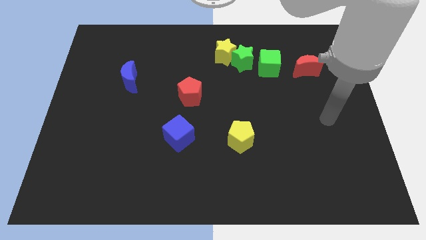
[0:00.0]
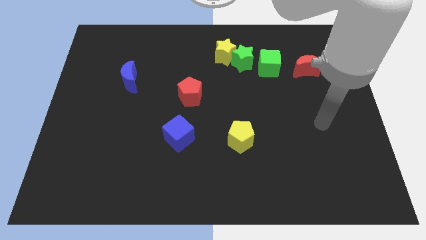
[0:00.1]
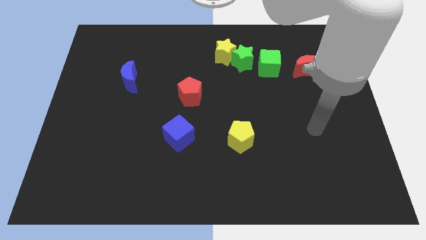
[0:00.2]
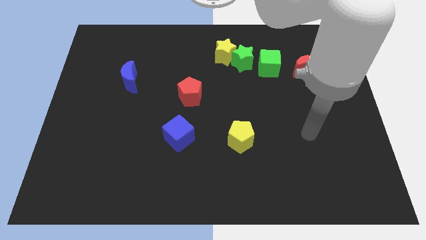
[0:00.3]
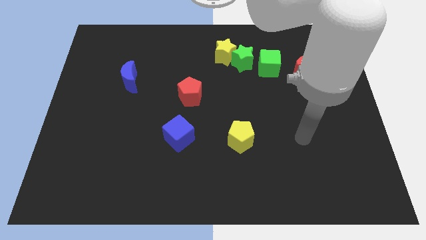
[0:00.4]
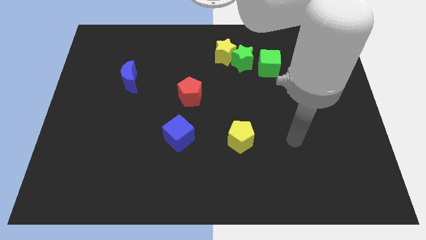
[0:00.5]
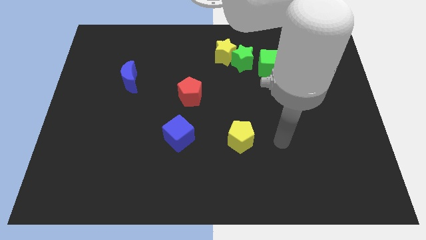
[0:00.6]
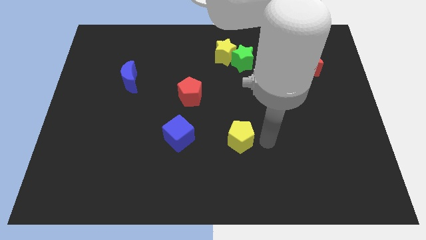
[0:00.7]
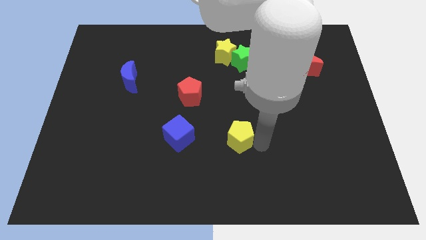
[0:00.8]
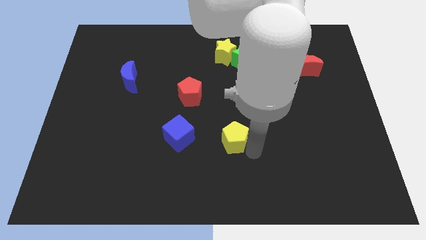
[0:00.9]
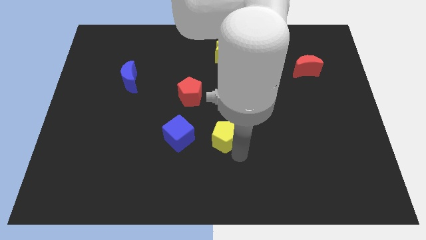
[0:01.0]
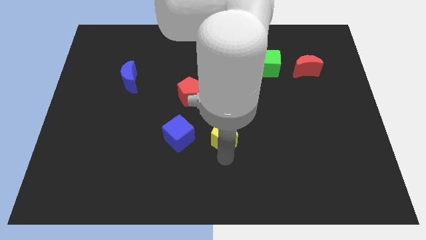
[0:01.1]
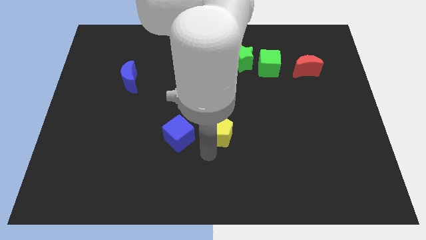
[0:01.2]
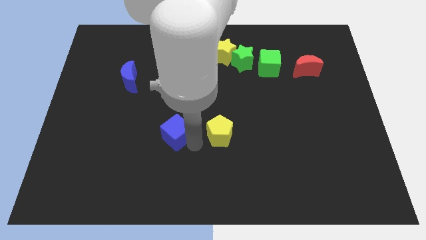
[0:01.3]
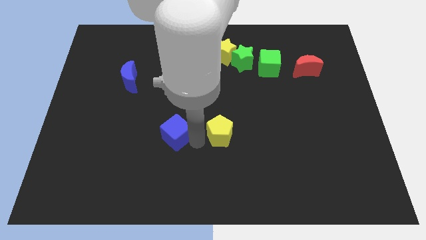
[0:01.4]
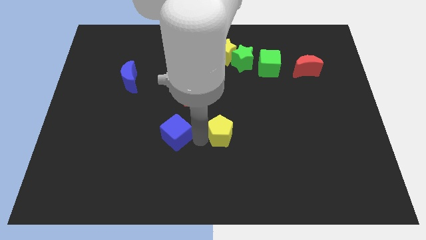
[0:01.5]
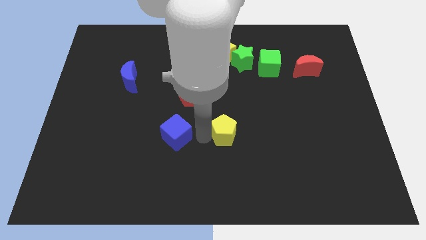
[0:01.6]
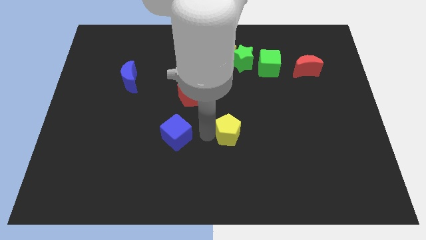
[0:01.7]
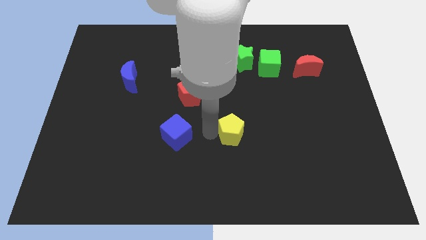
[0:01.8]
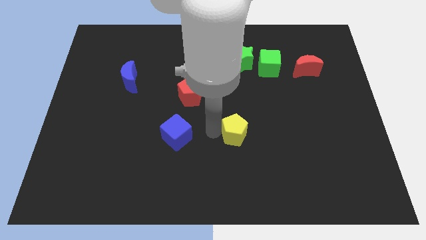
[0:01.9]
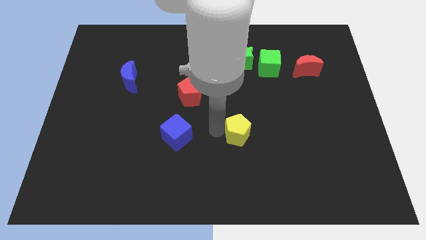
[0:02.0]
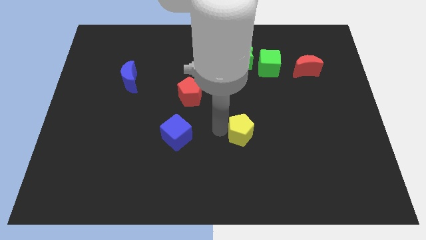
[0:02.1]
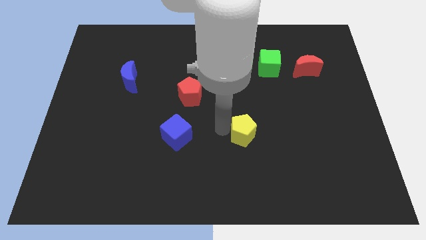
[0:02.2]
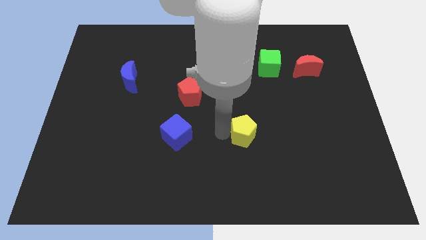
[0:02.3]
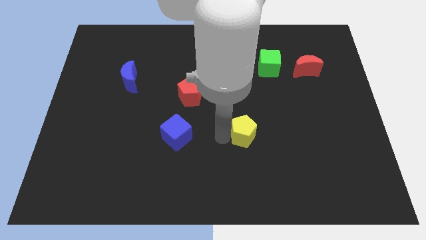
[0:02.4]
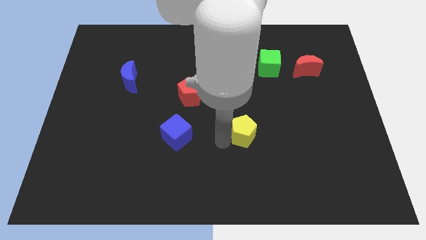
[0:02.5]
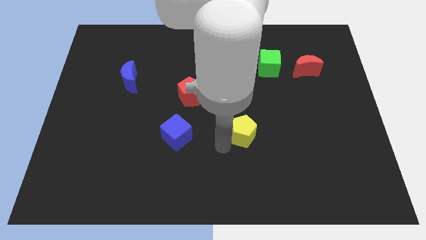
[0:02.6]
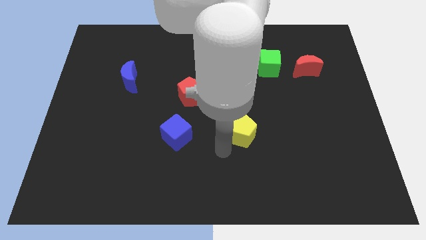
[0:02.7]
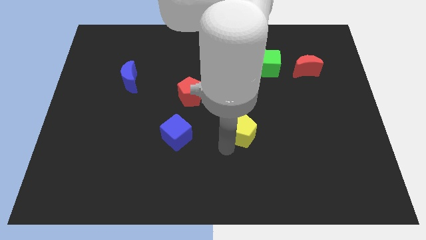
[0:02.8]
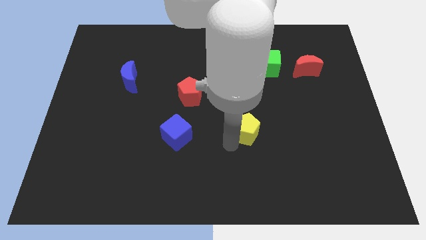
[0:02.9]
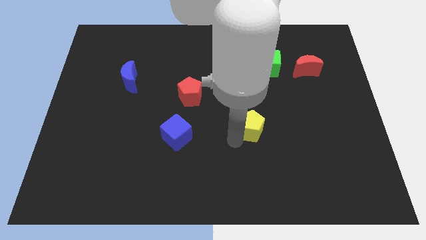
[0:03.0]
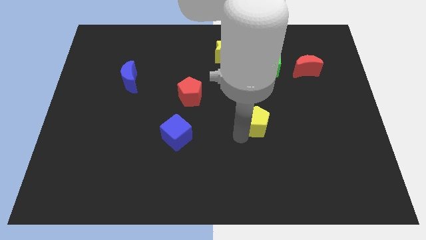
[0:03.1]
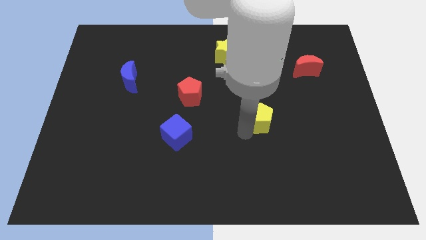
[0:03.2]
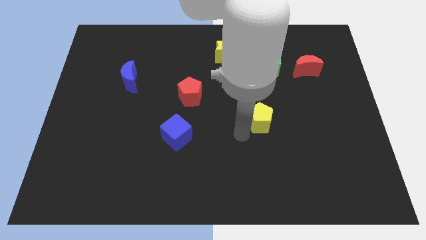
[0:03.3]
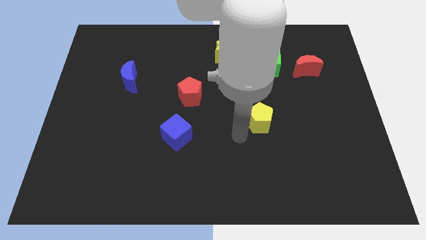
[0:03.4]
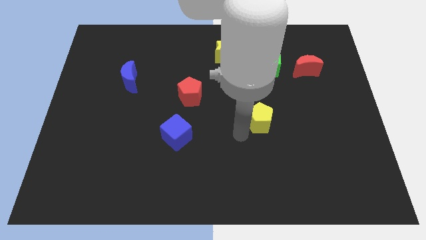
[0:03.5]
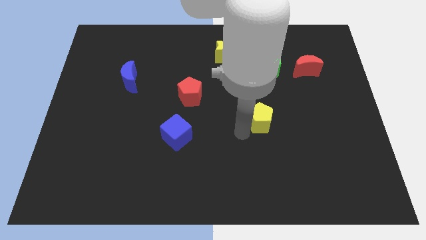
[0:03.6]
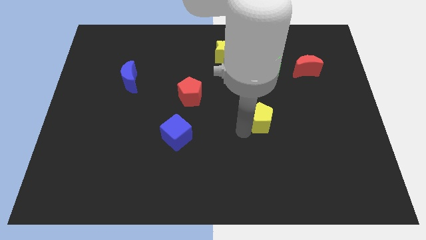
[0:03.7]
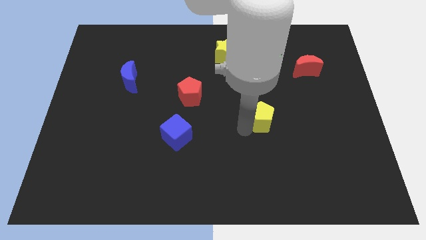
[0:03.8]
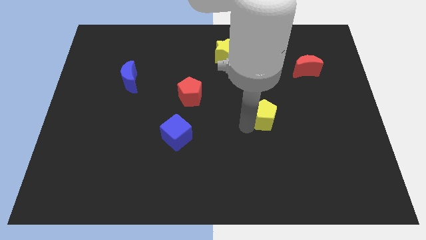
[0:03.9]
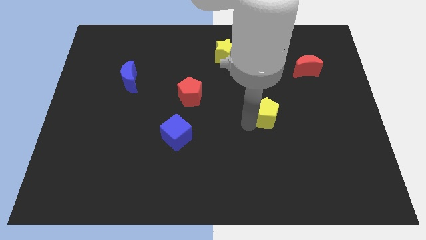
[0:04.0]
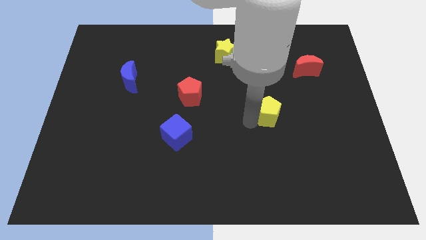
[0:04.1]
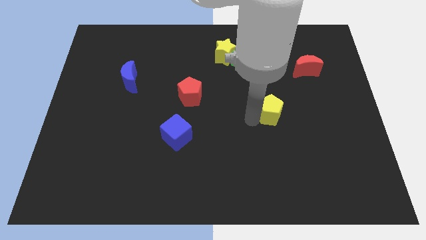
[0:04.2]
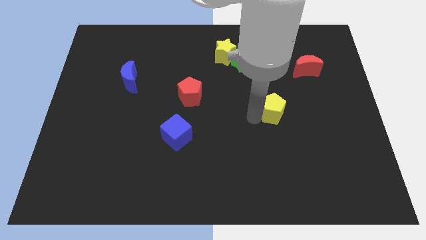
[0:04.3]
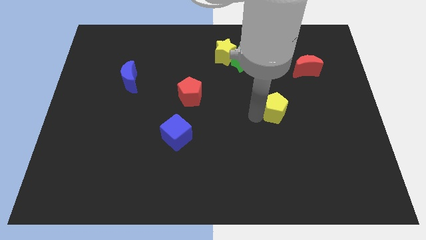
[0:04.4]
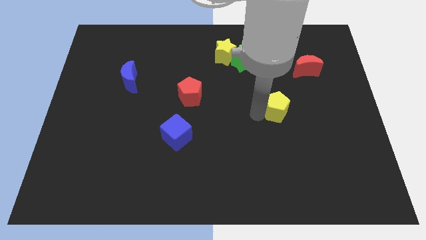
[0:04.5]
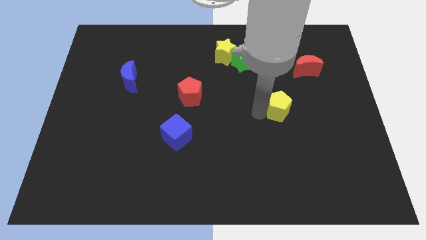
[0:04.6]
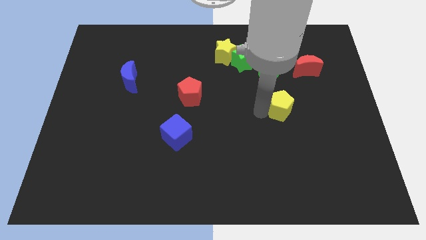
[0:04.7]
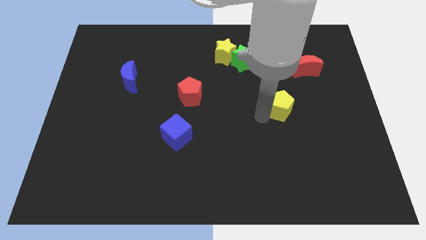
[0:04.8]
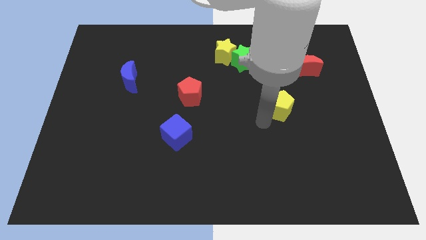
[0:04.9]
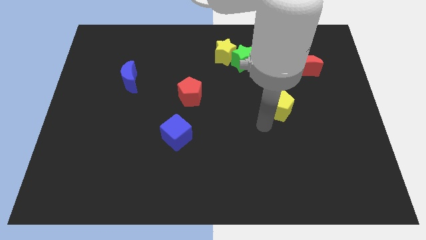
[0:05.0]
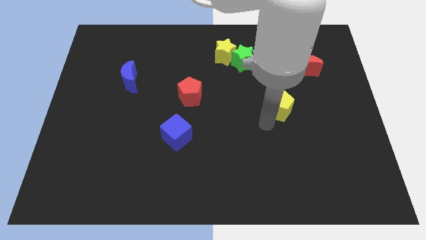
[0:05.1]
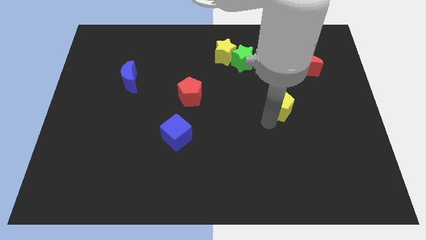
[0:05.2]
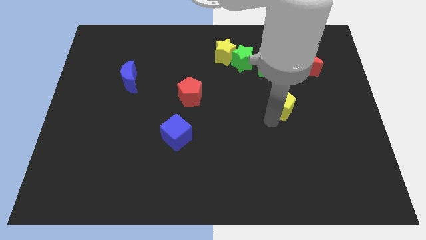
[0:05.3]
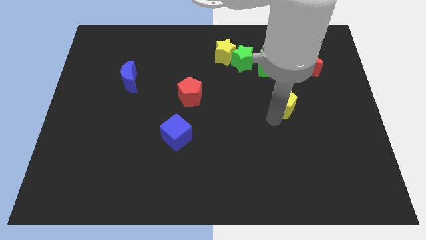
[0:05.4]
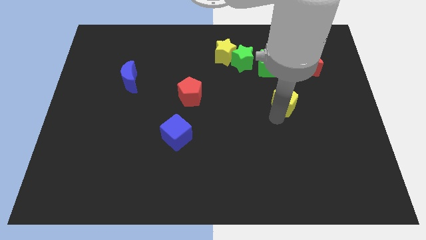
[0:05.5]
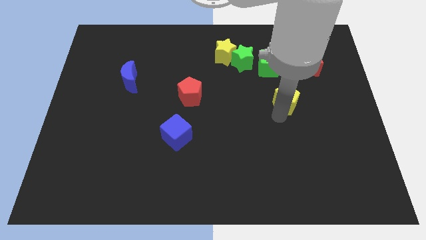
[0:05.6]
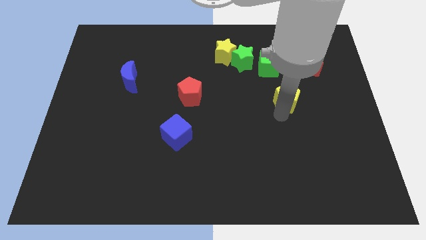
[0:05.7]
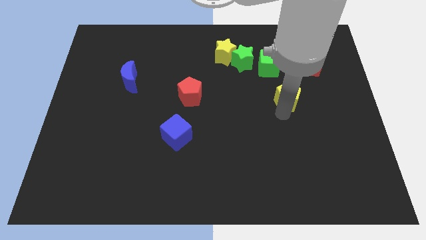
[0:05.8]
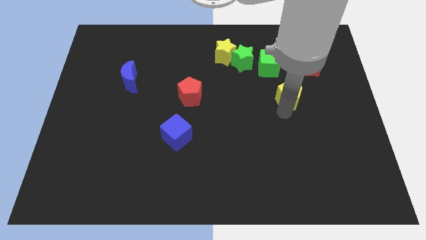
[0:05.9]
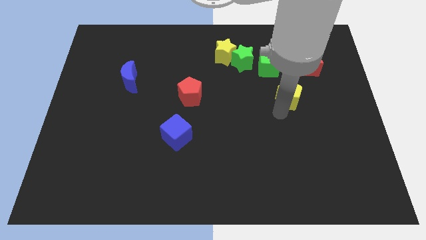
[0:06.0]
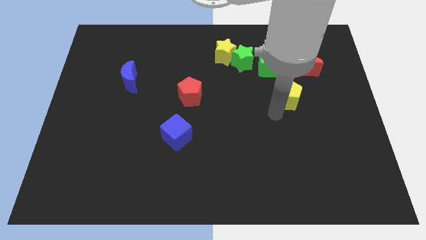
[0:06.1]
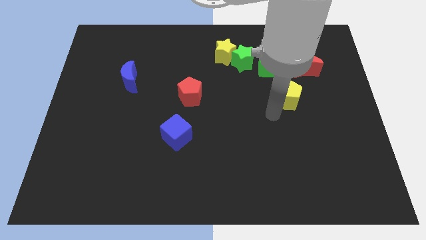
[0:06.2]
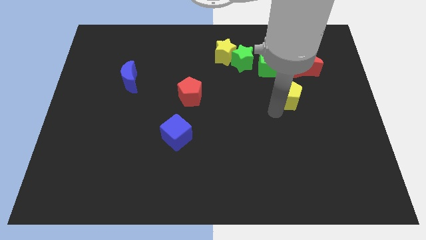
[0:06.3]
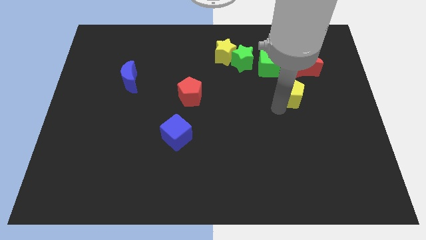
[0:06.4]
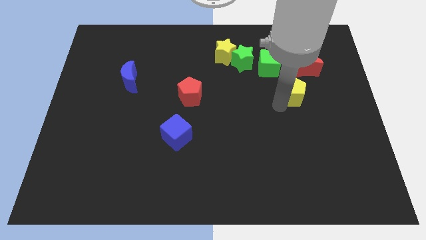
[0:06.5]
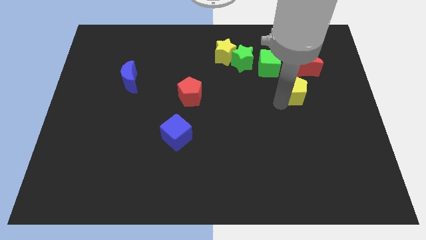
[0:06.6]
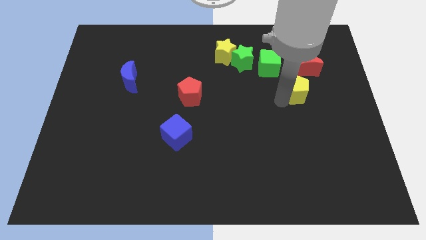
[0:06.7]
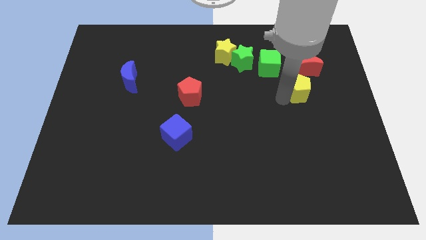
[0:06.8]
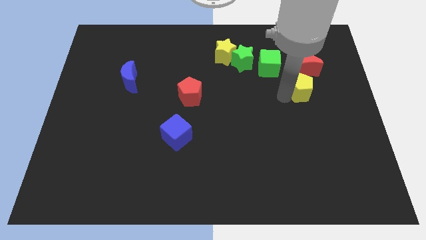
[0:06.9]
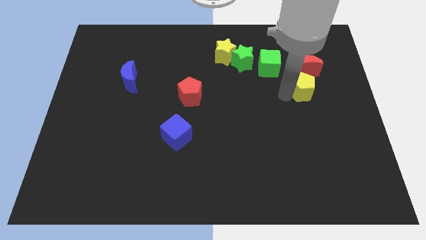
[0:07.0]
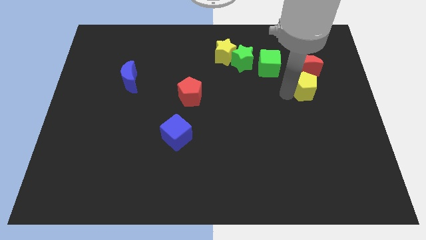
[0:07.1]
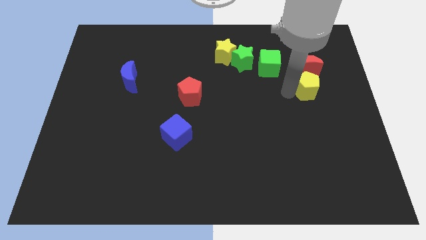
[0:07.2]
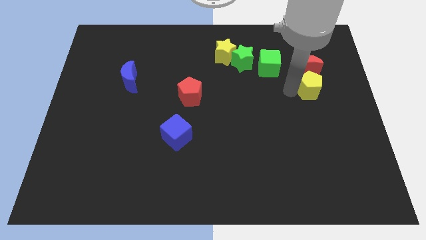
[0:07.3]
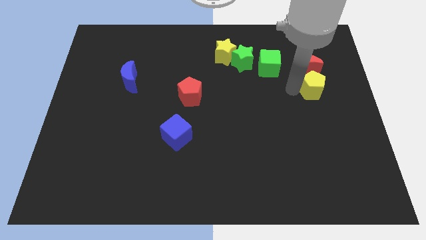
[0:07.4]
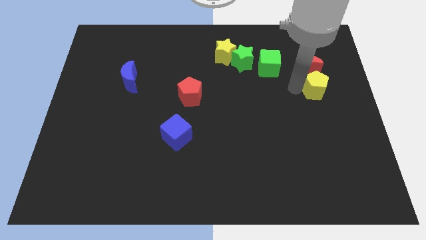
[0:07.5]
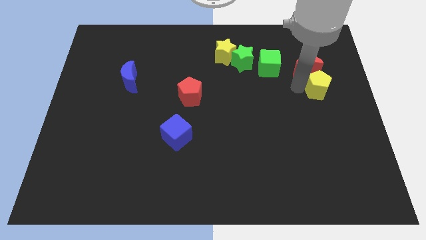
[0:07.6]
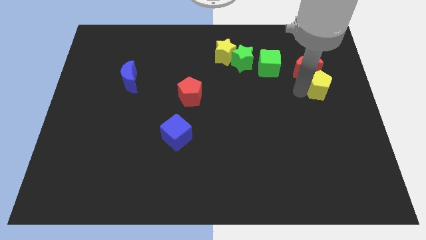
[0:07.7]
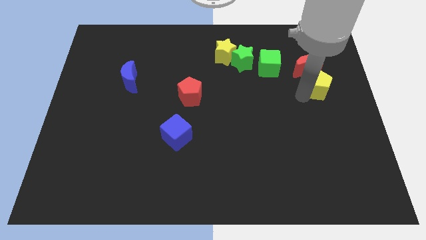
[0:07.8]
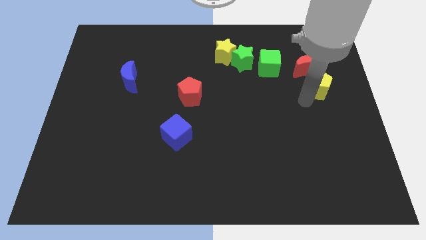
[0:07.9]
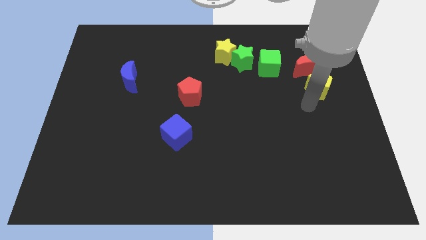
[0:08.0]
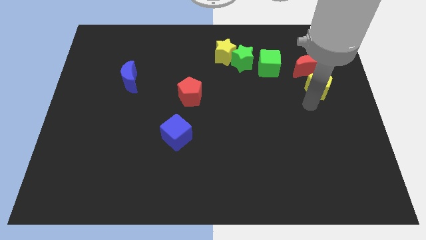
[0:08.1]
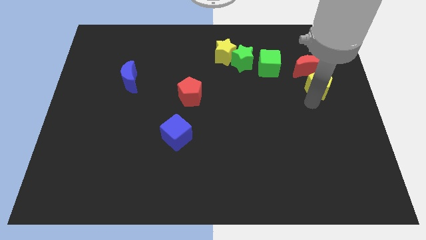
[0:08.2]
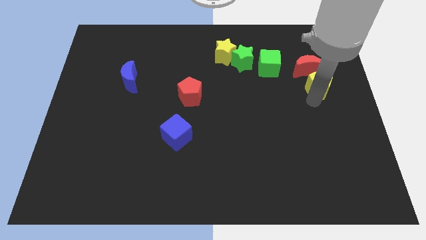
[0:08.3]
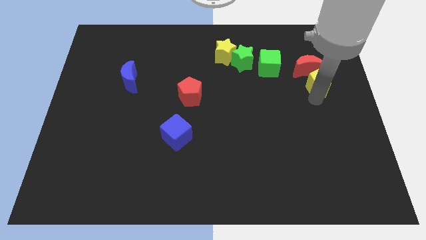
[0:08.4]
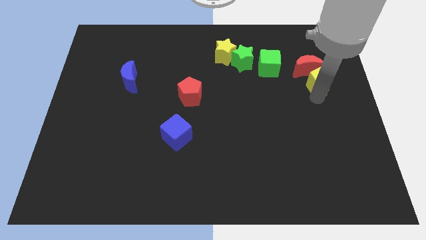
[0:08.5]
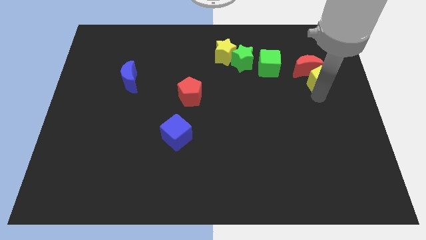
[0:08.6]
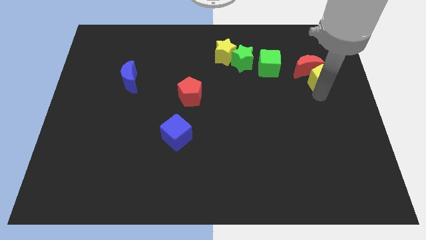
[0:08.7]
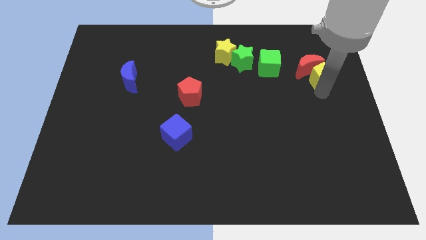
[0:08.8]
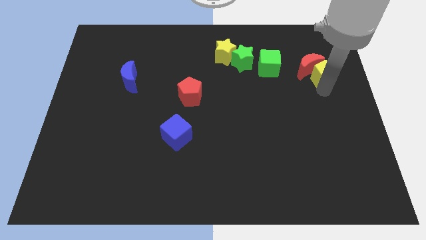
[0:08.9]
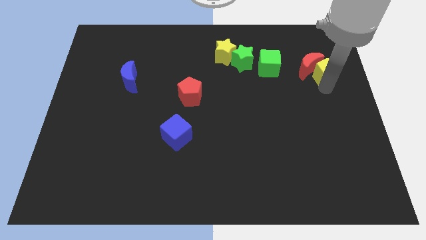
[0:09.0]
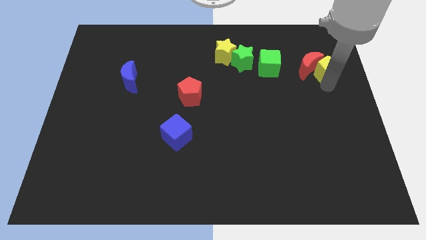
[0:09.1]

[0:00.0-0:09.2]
move the yellow pentagon to the top right of the red moon
